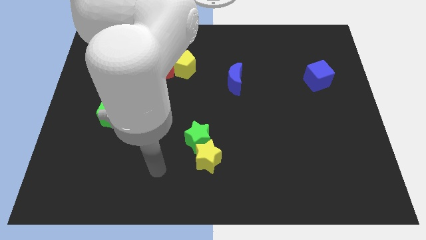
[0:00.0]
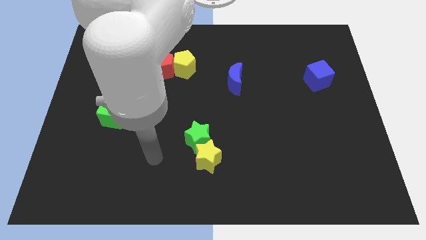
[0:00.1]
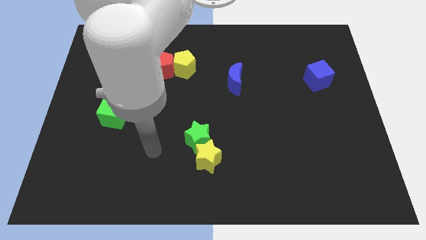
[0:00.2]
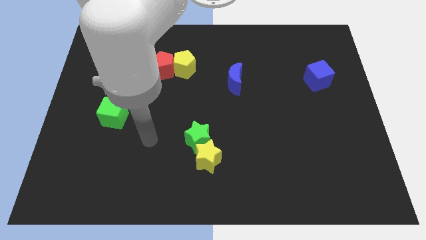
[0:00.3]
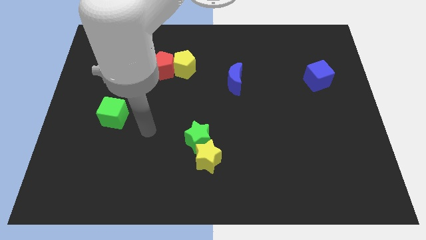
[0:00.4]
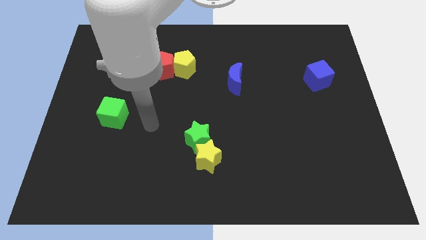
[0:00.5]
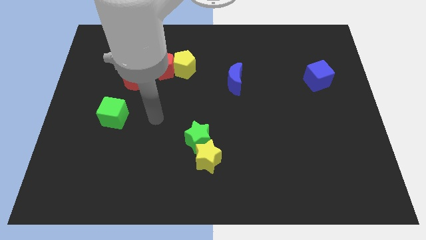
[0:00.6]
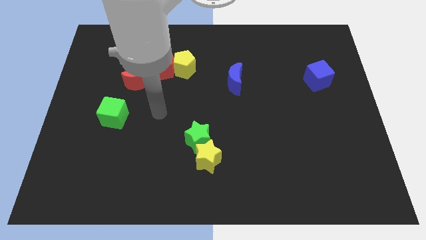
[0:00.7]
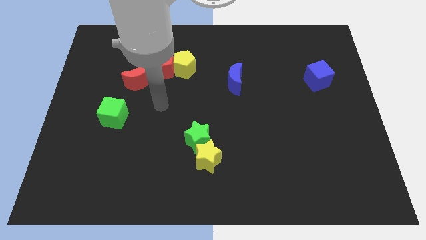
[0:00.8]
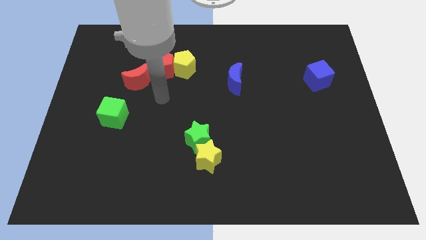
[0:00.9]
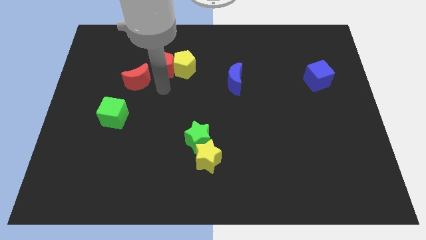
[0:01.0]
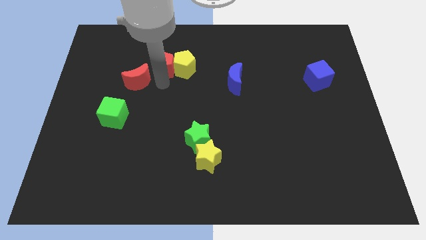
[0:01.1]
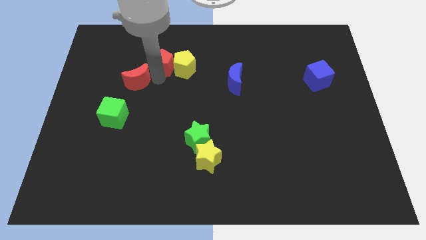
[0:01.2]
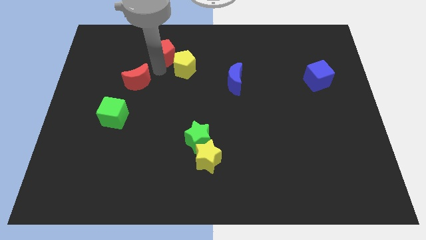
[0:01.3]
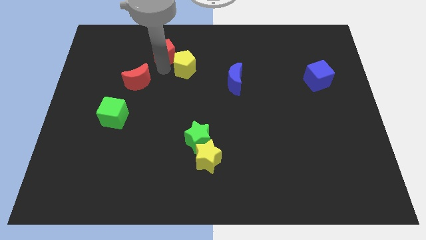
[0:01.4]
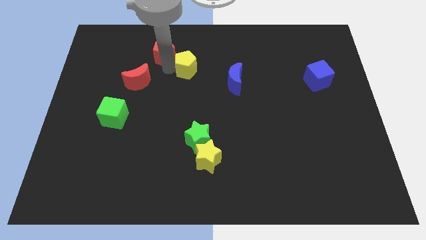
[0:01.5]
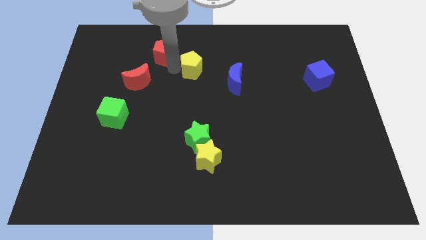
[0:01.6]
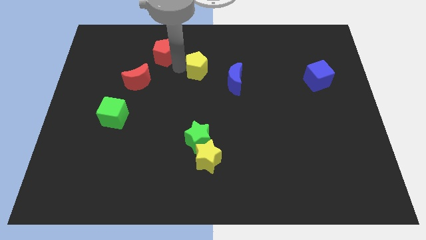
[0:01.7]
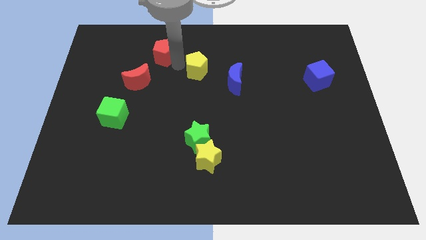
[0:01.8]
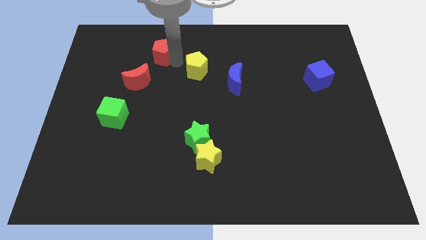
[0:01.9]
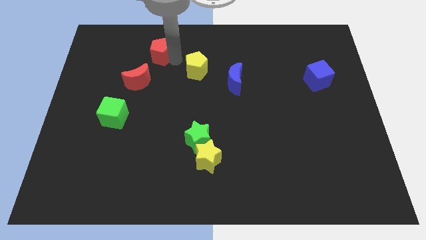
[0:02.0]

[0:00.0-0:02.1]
separate the yellow pentagon from the red pentagon

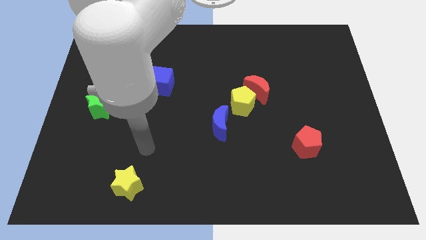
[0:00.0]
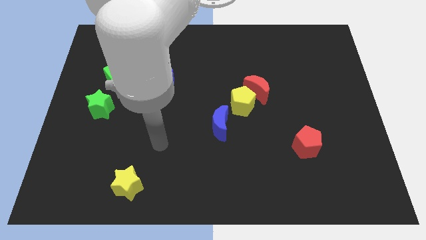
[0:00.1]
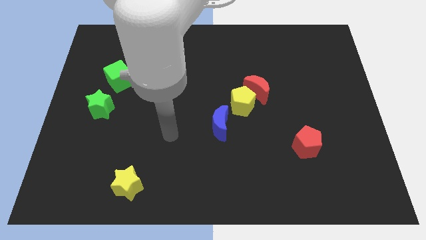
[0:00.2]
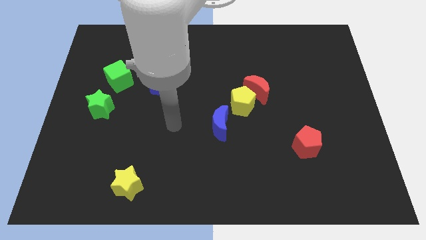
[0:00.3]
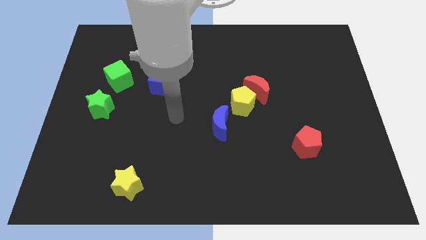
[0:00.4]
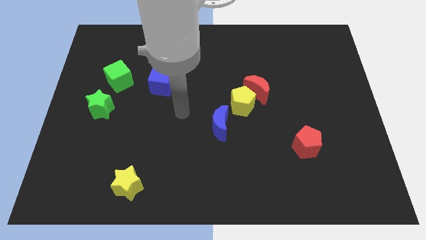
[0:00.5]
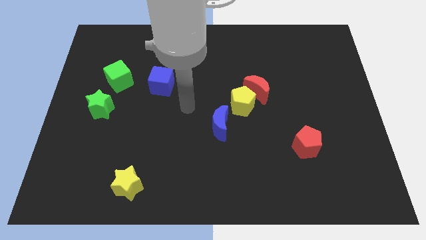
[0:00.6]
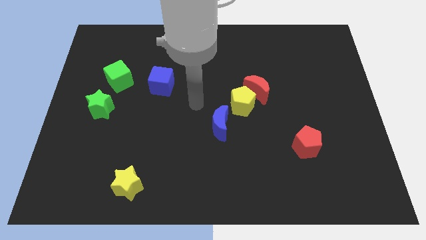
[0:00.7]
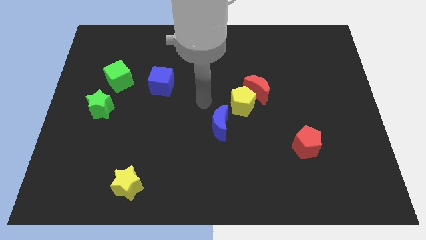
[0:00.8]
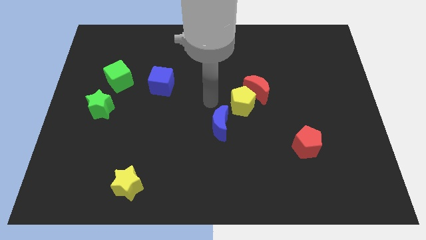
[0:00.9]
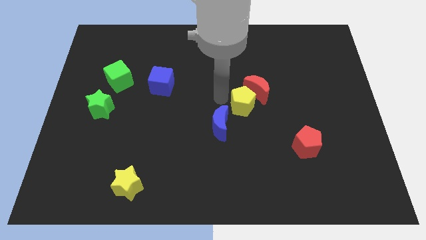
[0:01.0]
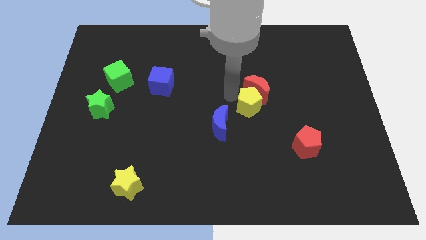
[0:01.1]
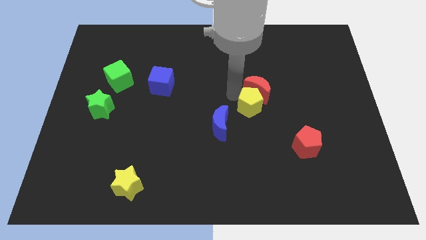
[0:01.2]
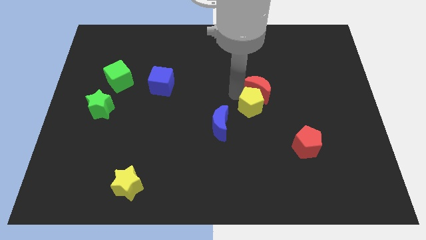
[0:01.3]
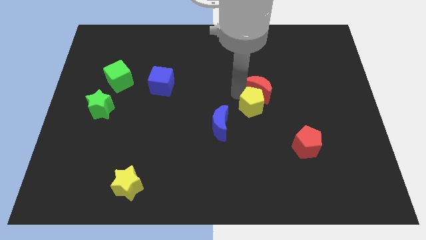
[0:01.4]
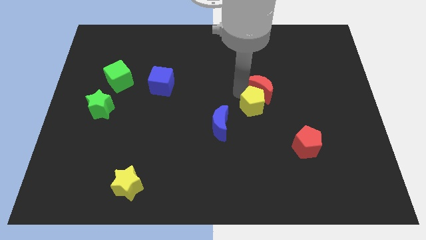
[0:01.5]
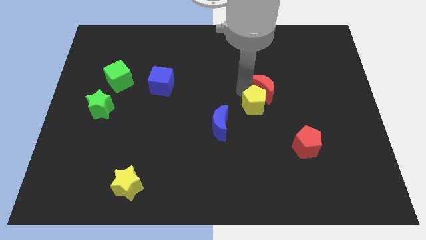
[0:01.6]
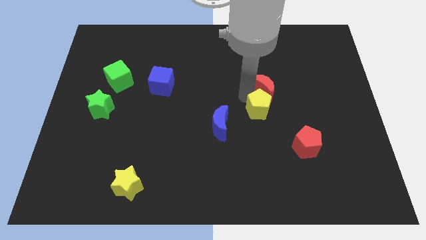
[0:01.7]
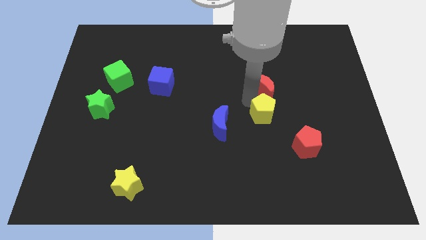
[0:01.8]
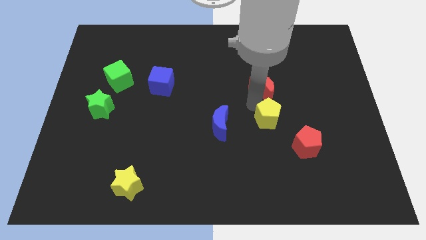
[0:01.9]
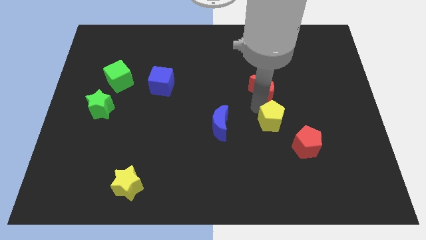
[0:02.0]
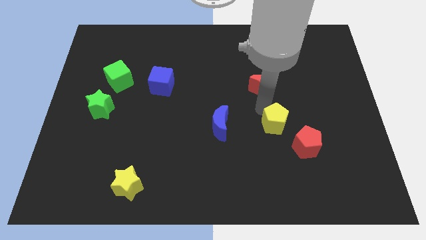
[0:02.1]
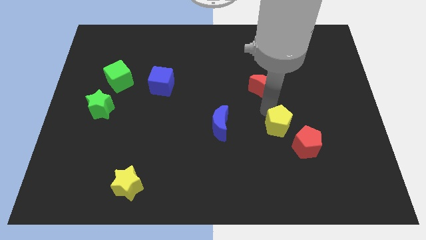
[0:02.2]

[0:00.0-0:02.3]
move the red moon away from the yellow pentagon

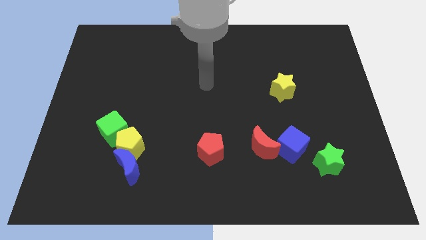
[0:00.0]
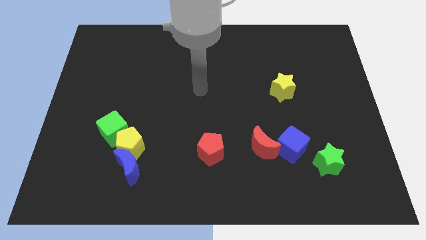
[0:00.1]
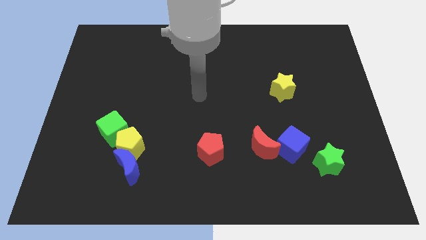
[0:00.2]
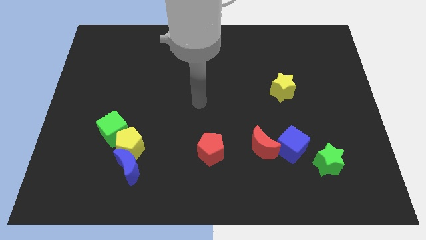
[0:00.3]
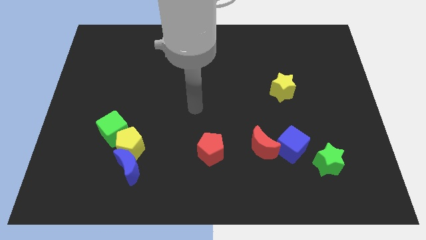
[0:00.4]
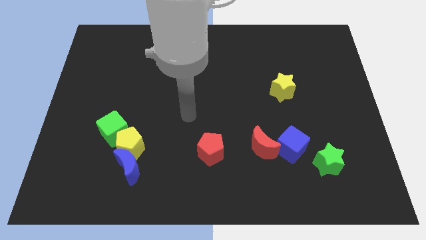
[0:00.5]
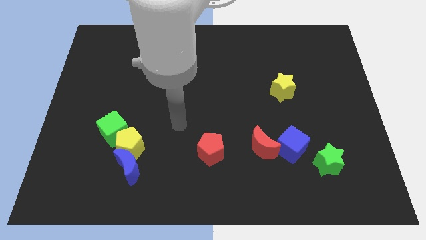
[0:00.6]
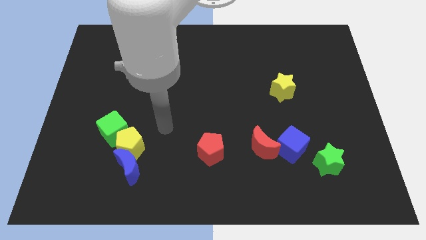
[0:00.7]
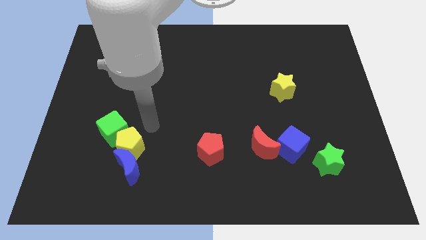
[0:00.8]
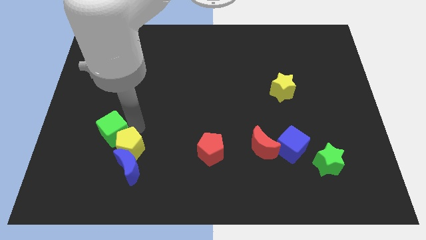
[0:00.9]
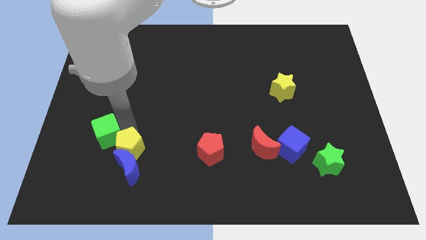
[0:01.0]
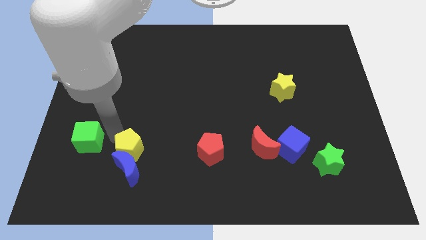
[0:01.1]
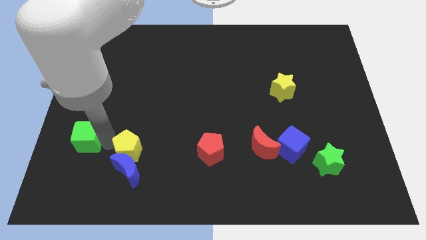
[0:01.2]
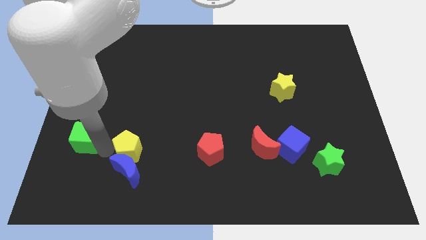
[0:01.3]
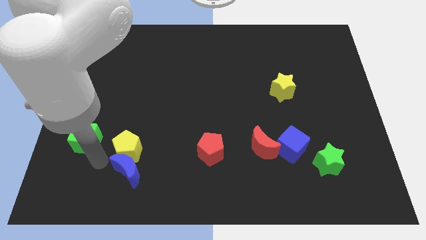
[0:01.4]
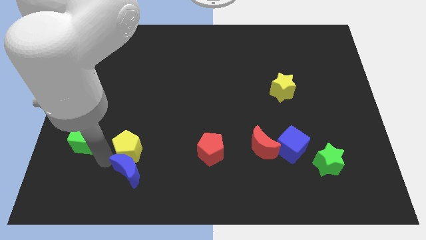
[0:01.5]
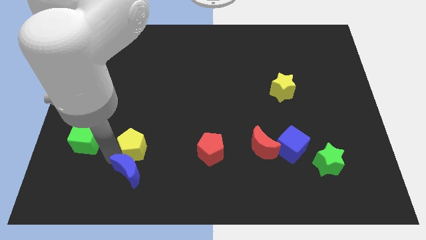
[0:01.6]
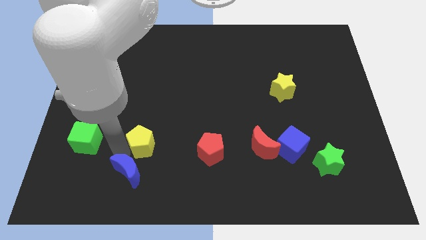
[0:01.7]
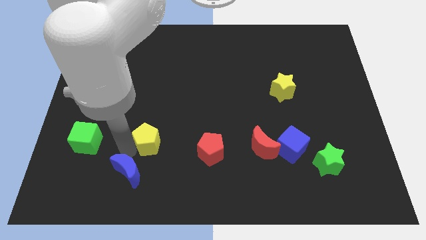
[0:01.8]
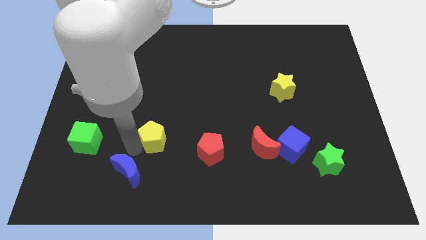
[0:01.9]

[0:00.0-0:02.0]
pull the yellow pentagon apart from the blue moon and green cube

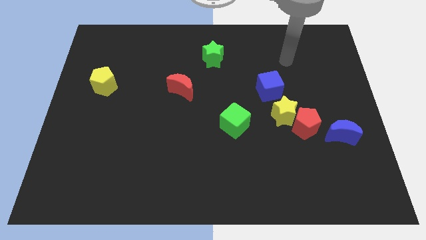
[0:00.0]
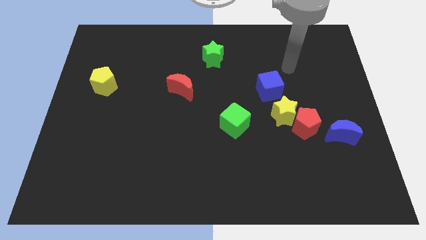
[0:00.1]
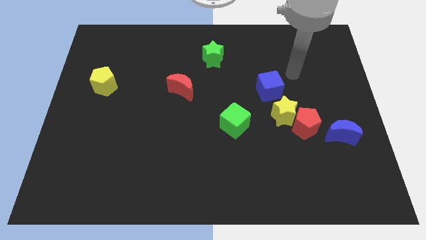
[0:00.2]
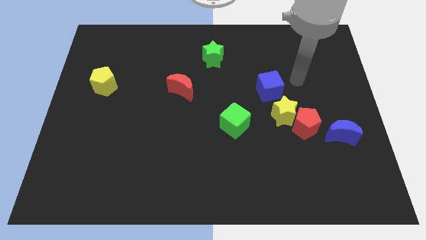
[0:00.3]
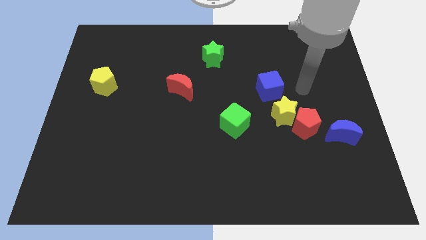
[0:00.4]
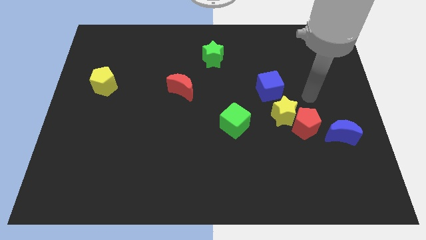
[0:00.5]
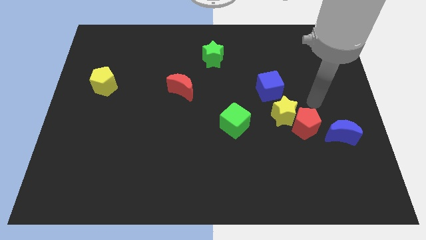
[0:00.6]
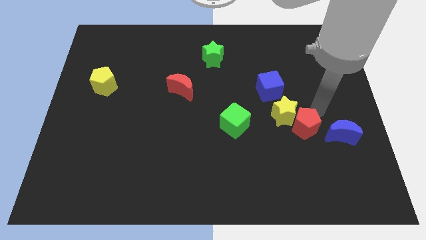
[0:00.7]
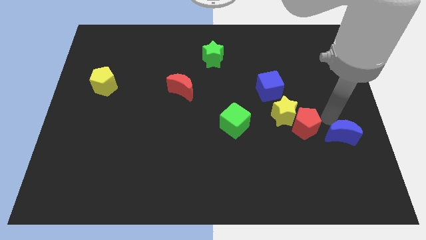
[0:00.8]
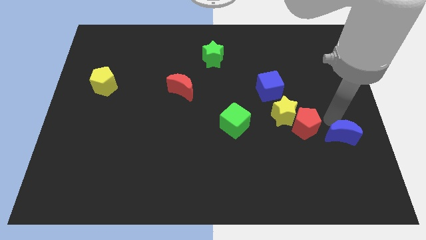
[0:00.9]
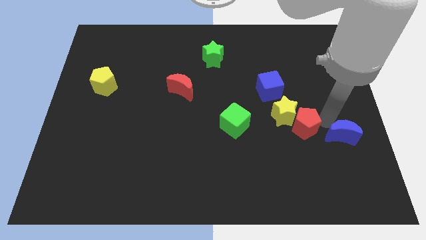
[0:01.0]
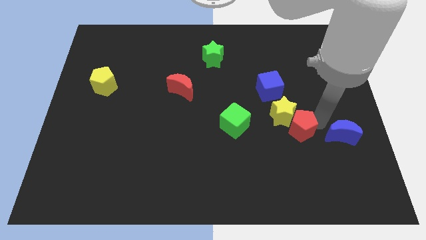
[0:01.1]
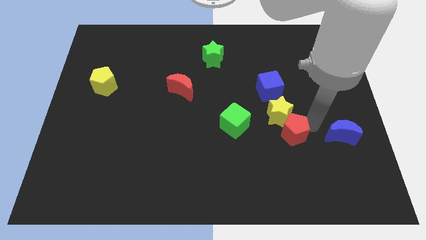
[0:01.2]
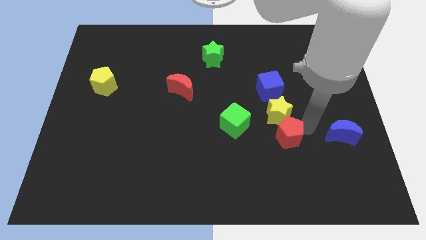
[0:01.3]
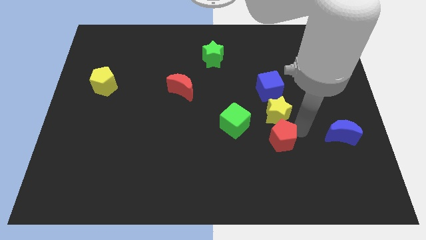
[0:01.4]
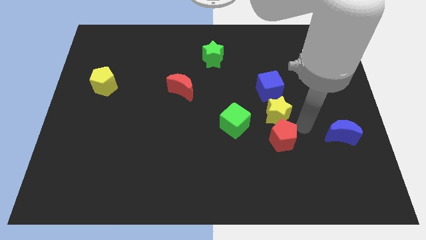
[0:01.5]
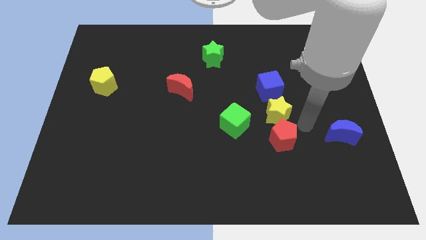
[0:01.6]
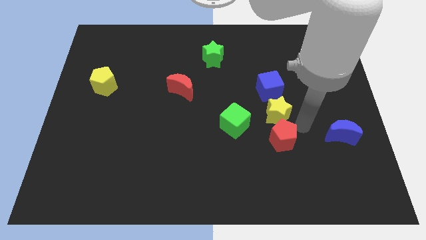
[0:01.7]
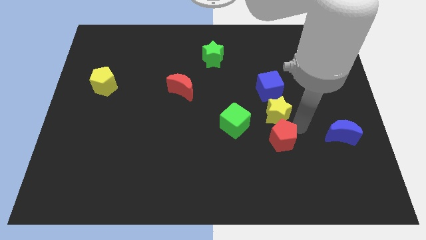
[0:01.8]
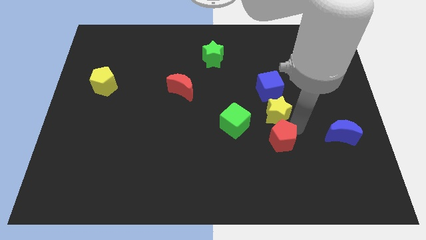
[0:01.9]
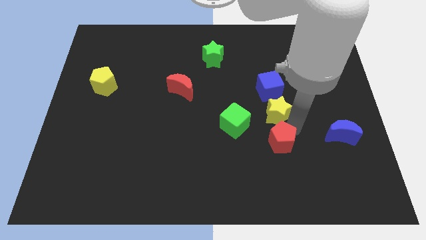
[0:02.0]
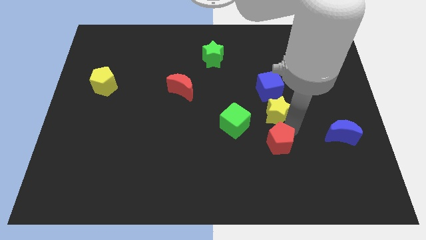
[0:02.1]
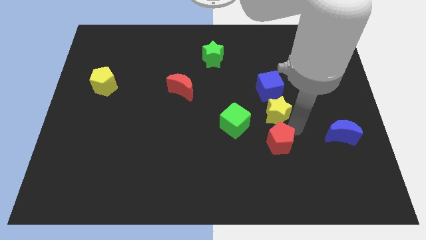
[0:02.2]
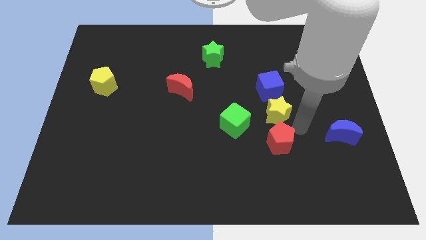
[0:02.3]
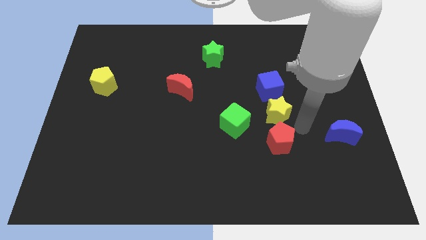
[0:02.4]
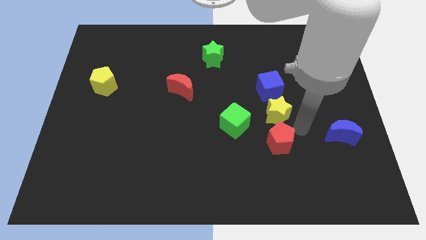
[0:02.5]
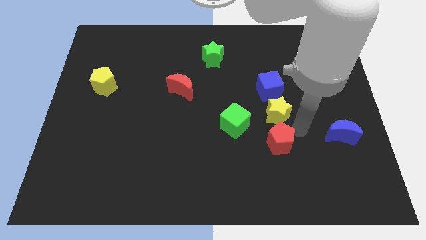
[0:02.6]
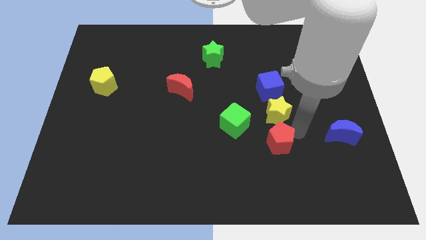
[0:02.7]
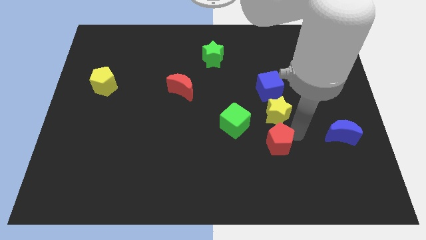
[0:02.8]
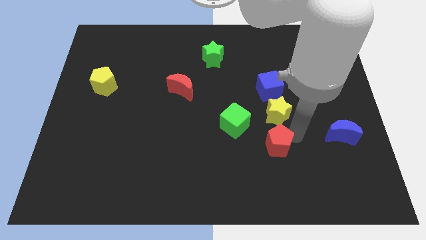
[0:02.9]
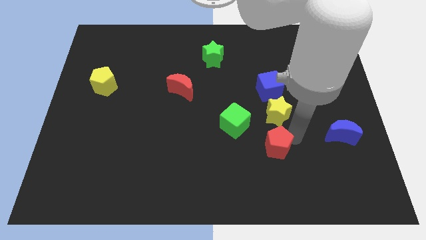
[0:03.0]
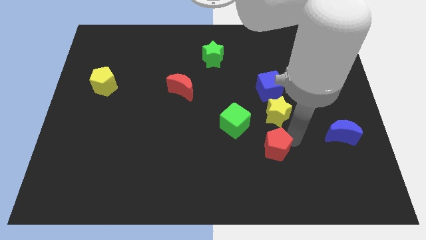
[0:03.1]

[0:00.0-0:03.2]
move the red pentagon away from the yellow star and blue moon
